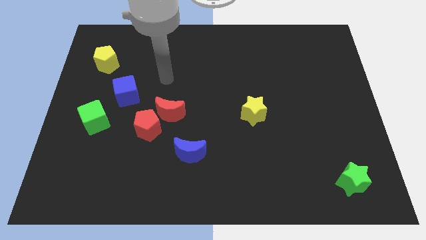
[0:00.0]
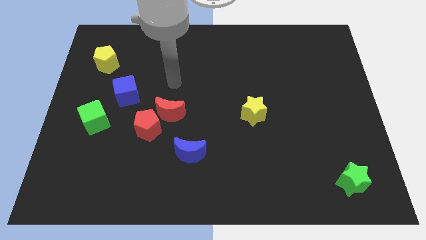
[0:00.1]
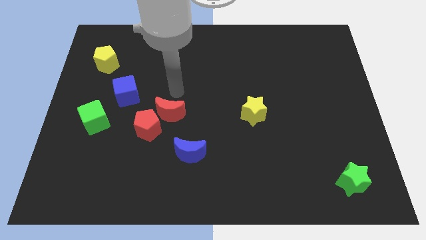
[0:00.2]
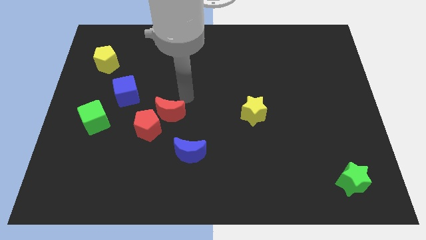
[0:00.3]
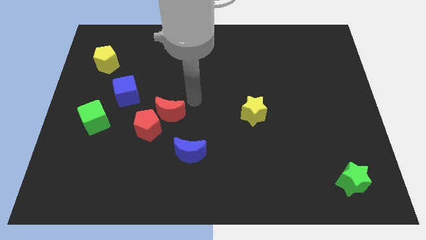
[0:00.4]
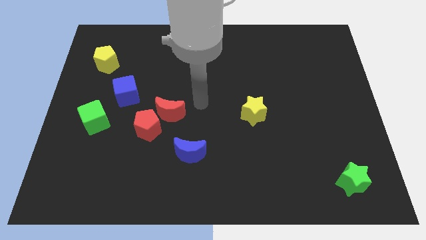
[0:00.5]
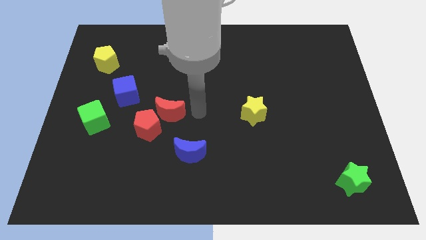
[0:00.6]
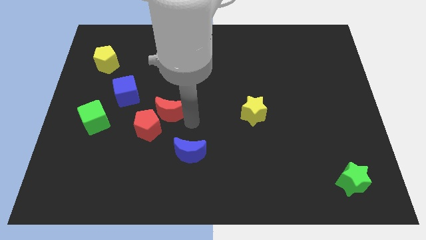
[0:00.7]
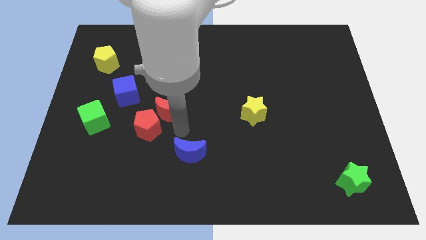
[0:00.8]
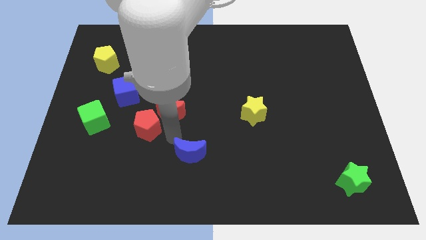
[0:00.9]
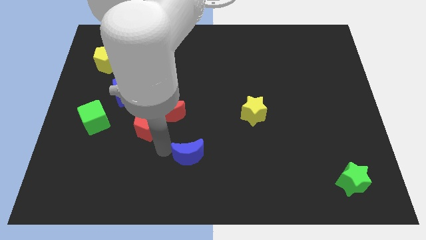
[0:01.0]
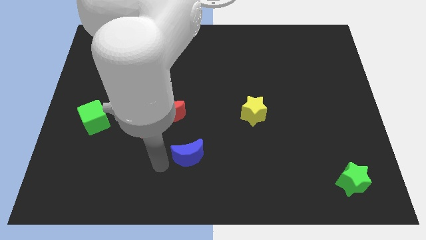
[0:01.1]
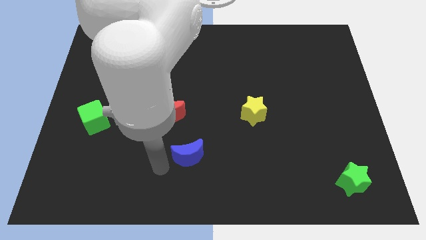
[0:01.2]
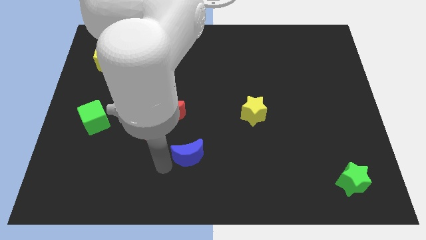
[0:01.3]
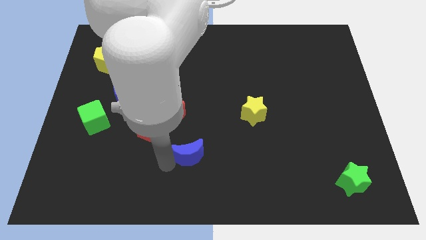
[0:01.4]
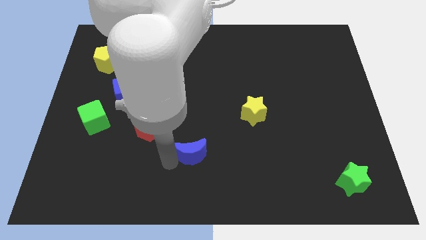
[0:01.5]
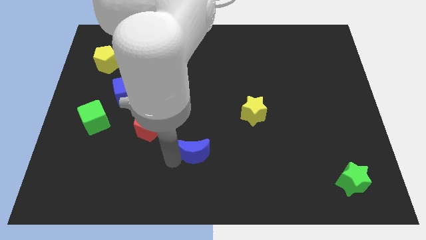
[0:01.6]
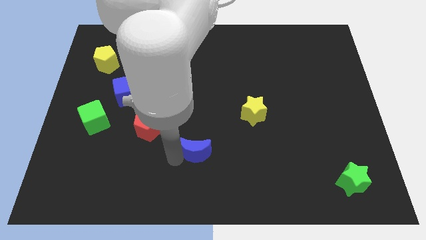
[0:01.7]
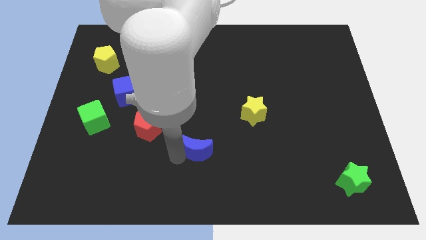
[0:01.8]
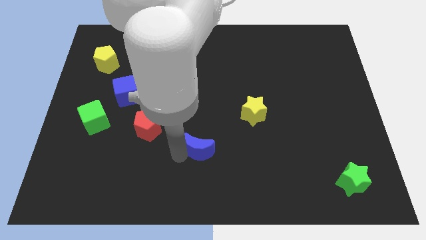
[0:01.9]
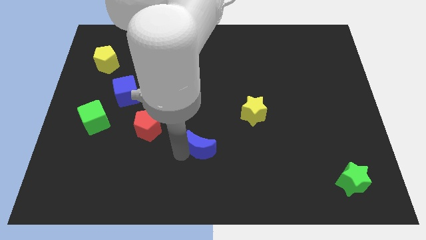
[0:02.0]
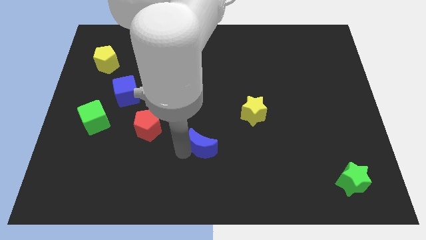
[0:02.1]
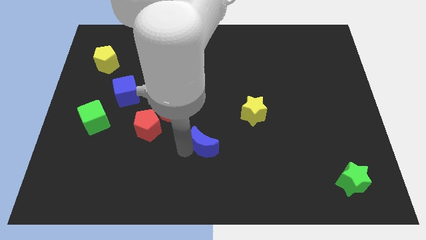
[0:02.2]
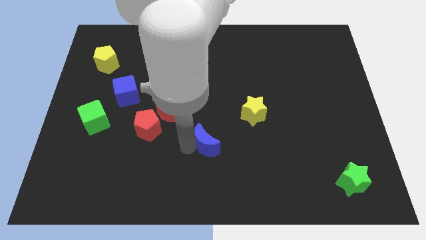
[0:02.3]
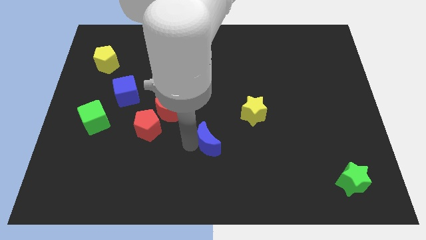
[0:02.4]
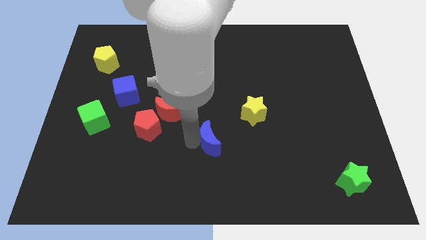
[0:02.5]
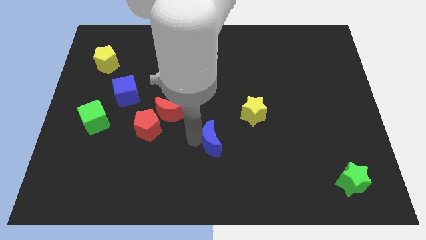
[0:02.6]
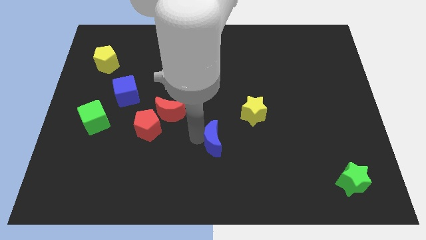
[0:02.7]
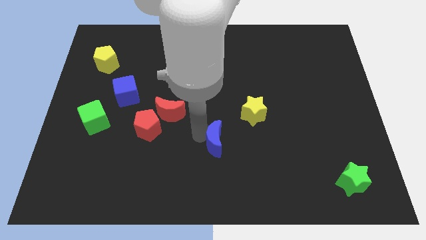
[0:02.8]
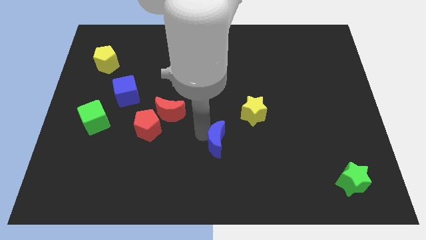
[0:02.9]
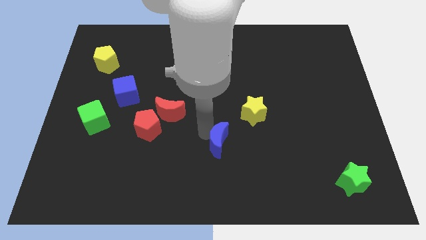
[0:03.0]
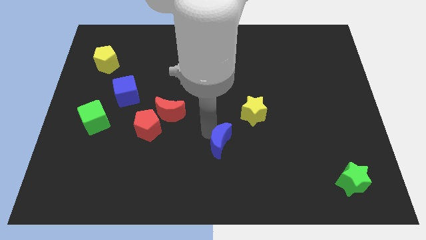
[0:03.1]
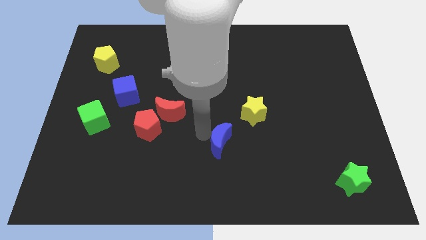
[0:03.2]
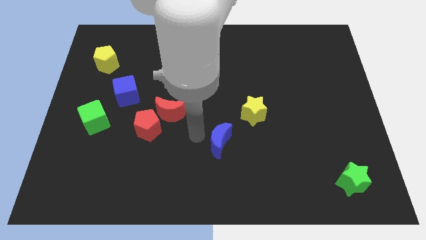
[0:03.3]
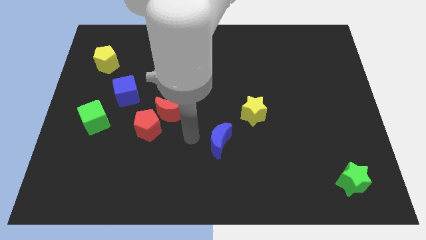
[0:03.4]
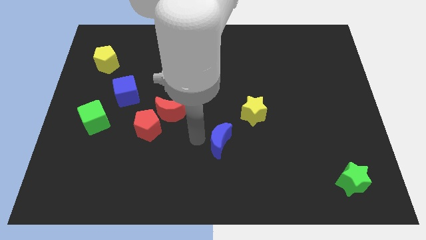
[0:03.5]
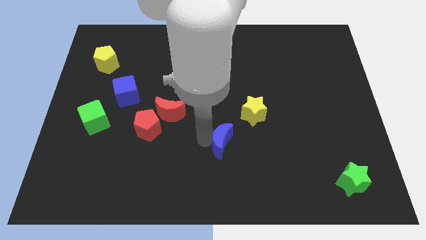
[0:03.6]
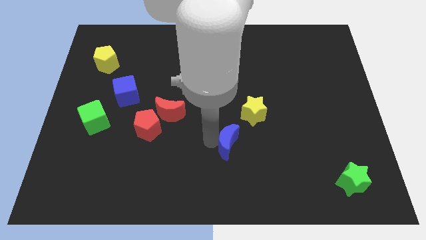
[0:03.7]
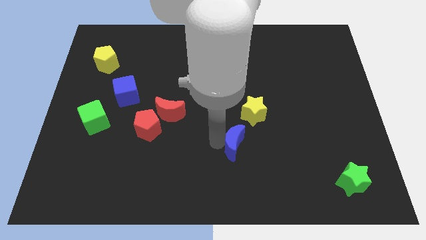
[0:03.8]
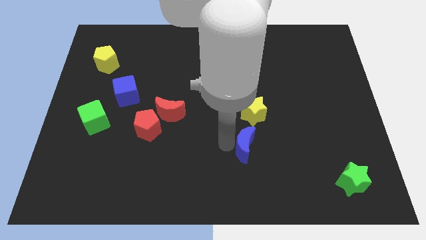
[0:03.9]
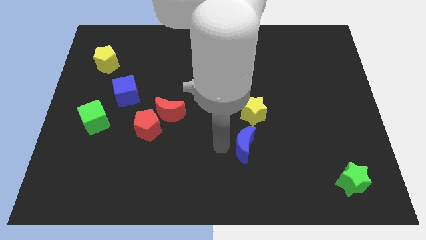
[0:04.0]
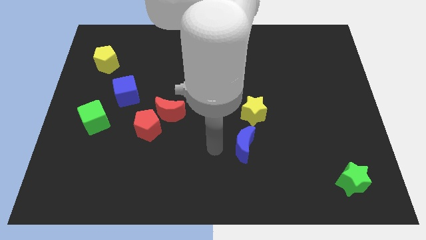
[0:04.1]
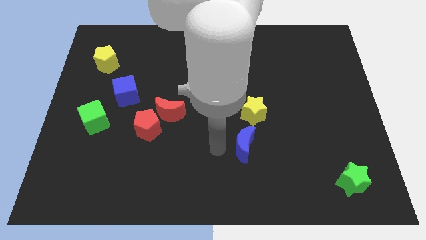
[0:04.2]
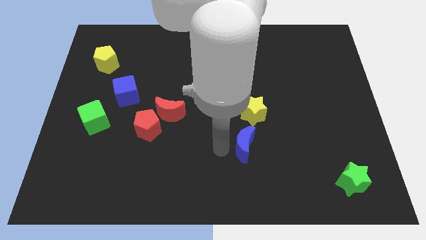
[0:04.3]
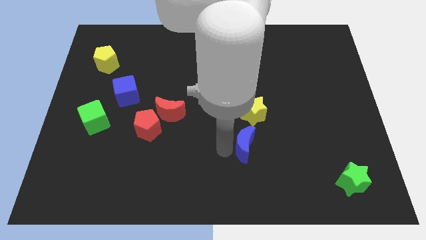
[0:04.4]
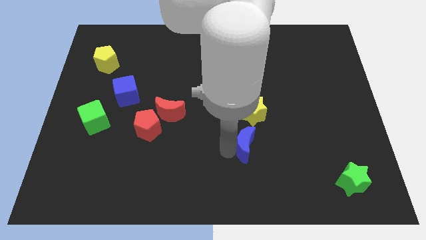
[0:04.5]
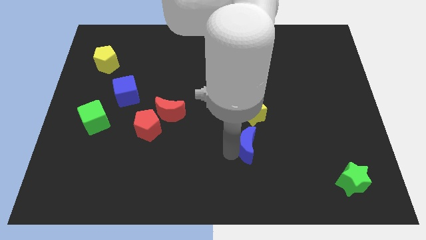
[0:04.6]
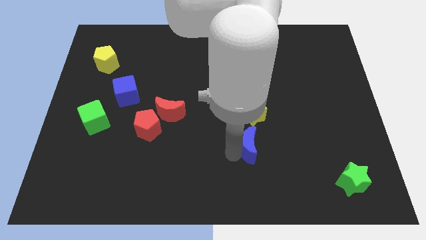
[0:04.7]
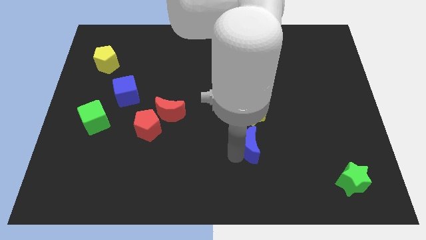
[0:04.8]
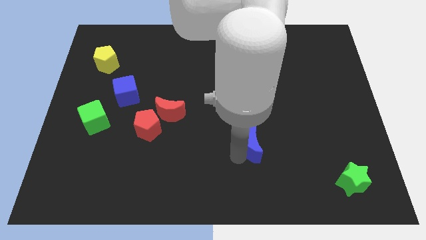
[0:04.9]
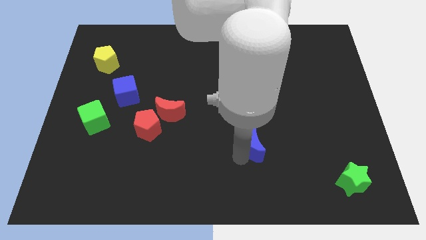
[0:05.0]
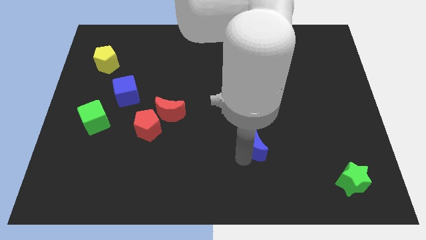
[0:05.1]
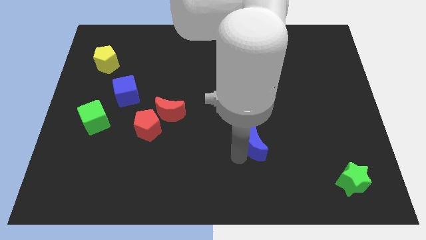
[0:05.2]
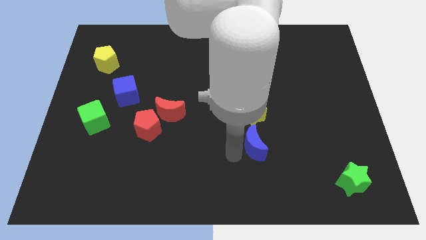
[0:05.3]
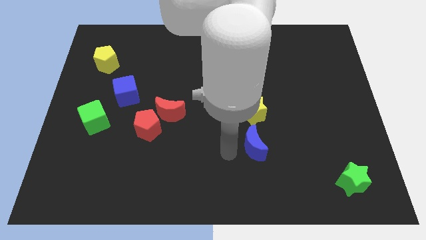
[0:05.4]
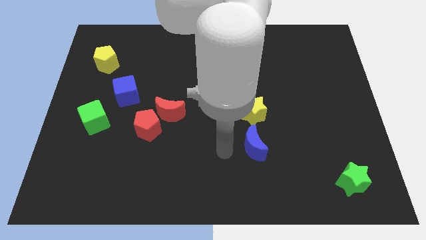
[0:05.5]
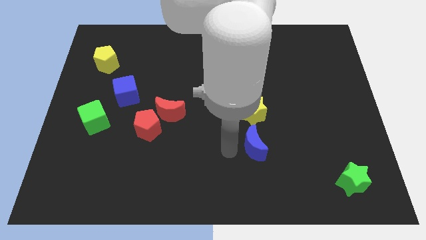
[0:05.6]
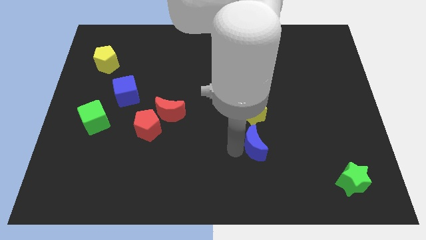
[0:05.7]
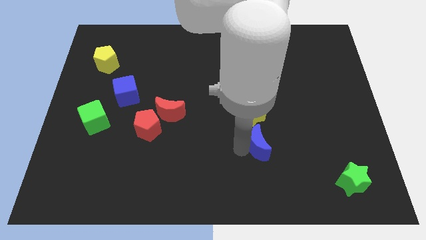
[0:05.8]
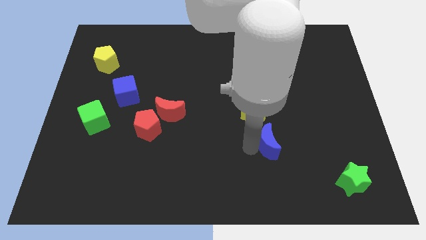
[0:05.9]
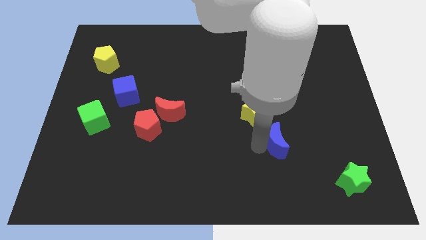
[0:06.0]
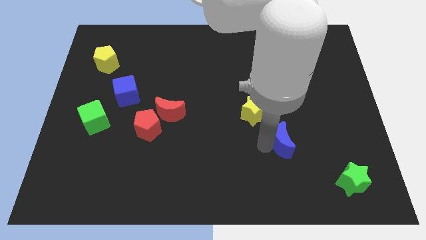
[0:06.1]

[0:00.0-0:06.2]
move the blue moon to the right

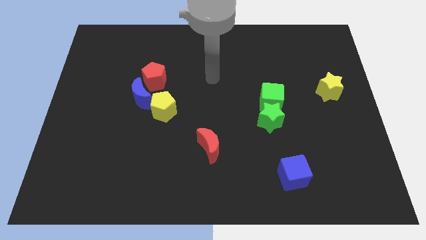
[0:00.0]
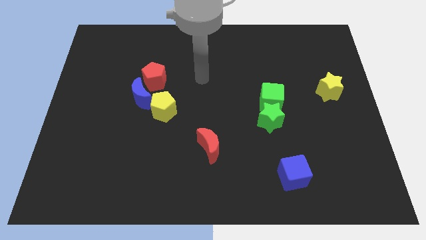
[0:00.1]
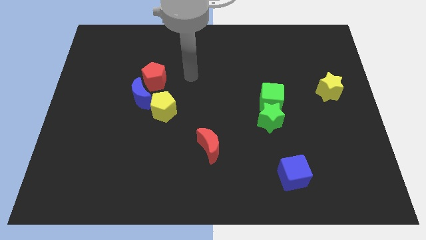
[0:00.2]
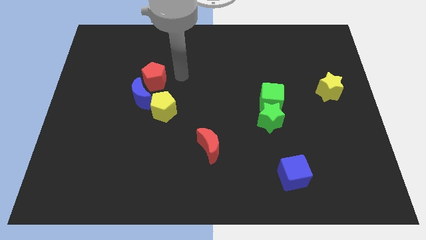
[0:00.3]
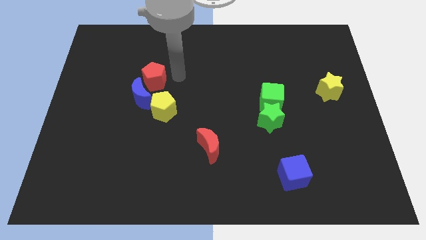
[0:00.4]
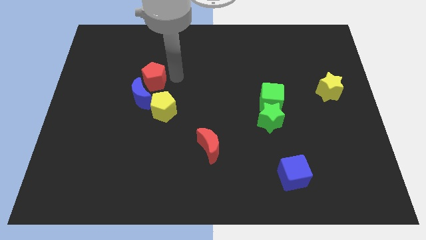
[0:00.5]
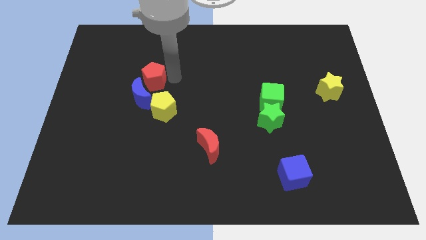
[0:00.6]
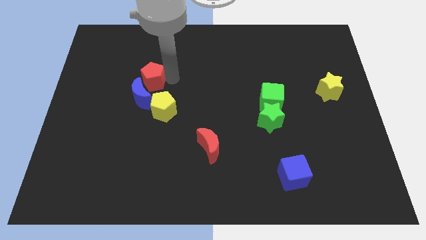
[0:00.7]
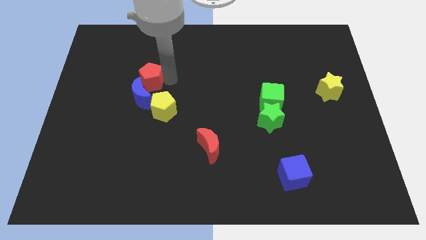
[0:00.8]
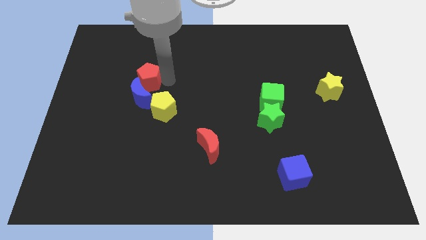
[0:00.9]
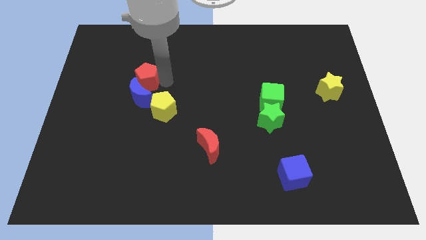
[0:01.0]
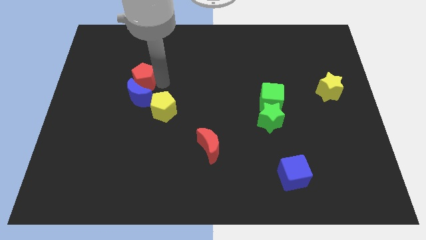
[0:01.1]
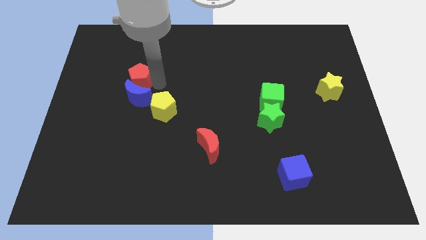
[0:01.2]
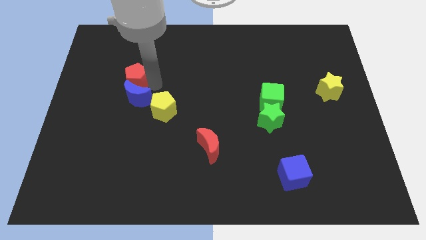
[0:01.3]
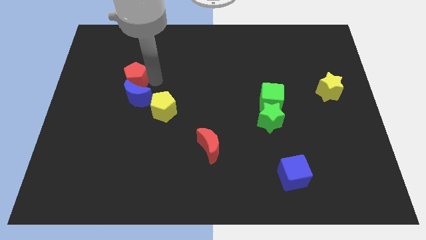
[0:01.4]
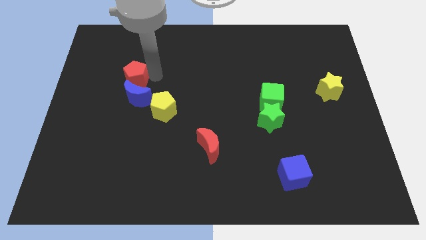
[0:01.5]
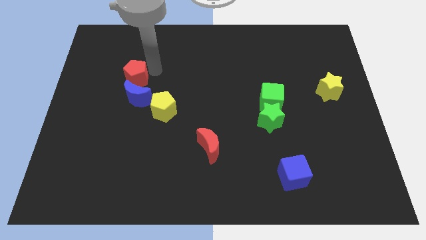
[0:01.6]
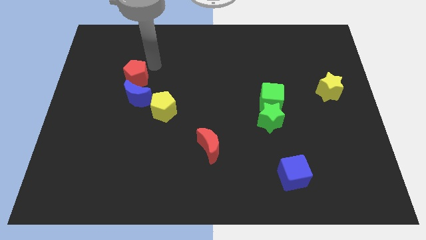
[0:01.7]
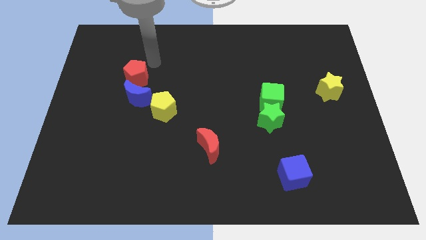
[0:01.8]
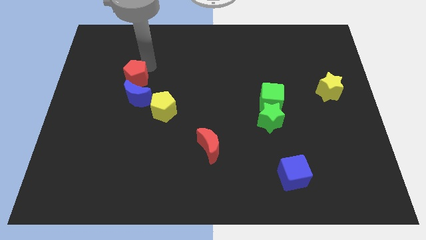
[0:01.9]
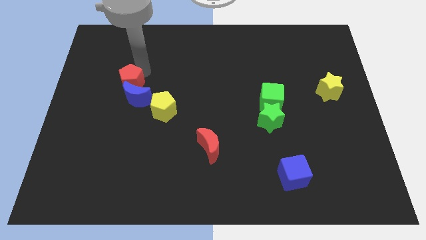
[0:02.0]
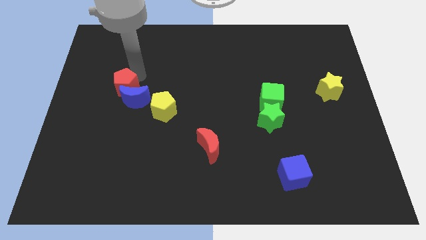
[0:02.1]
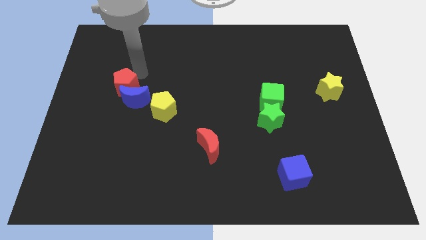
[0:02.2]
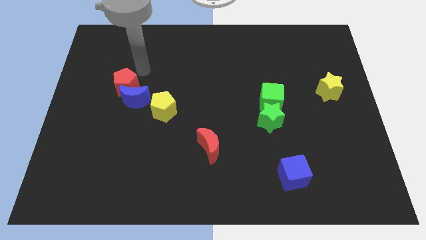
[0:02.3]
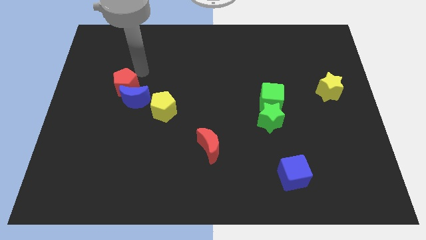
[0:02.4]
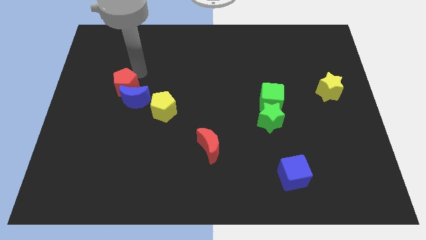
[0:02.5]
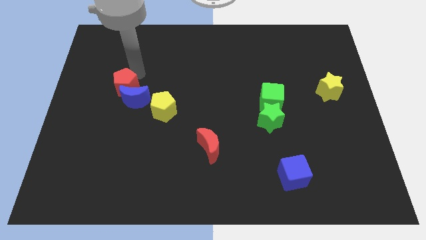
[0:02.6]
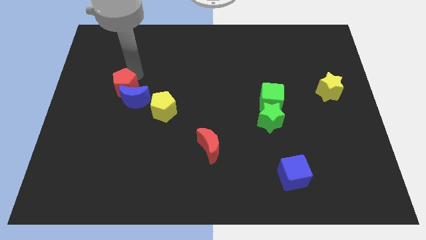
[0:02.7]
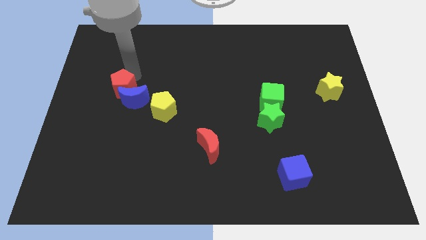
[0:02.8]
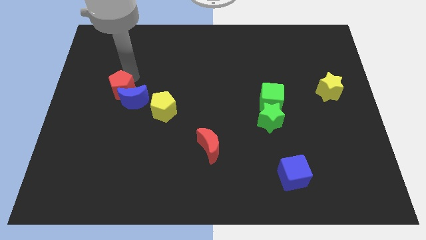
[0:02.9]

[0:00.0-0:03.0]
push the red pentagon downwards and left a little
